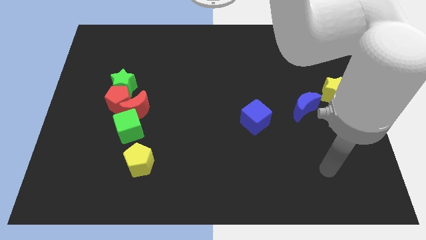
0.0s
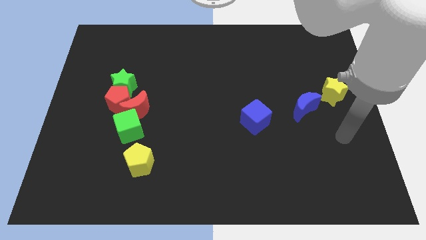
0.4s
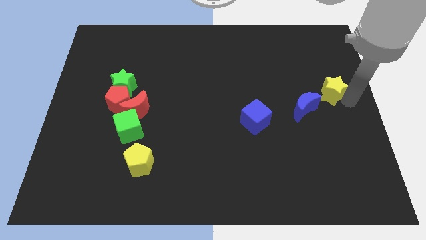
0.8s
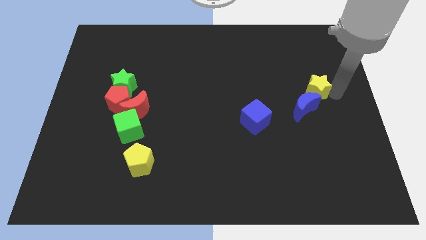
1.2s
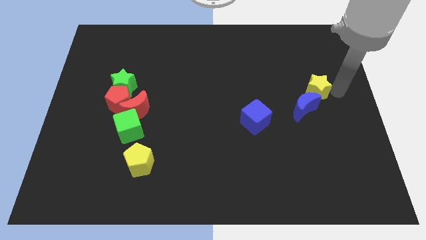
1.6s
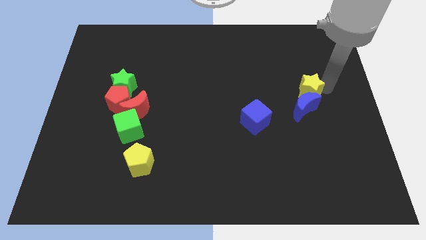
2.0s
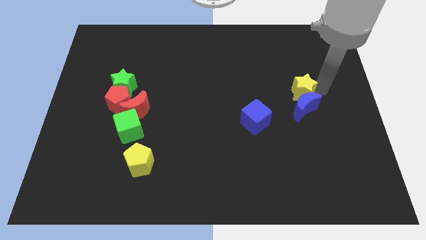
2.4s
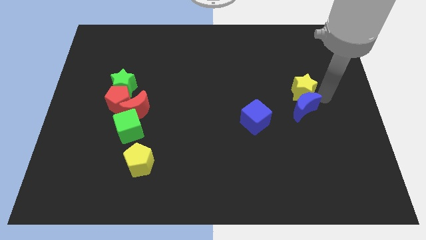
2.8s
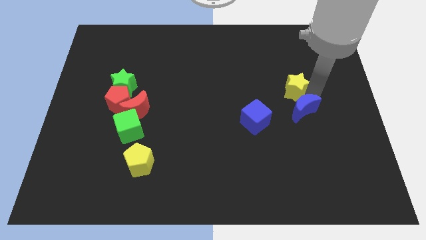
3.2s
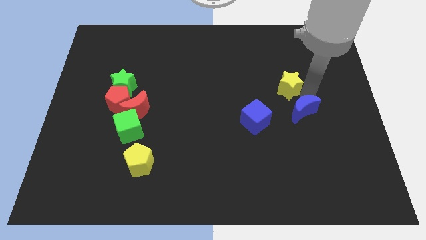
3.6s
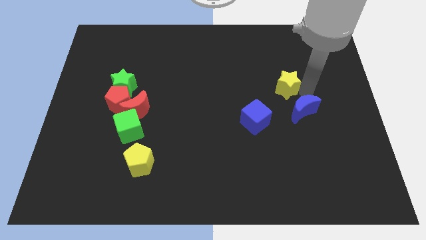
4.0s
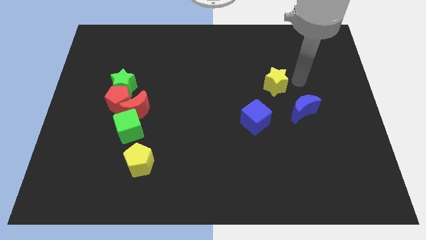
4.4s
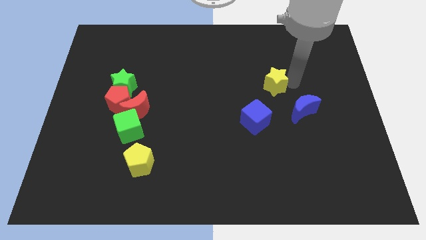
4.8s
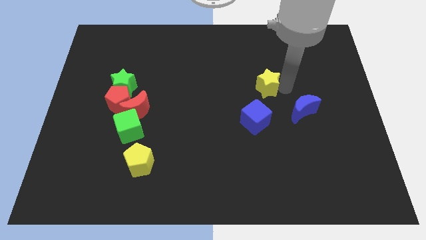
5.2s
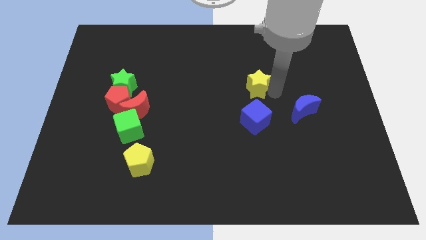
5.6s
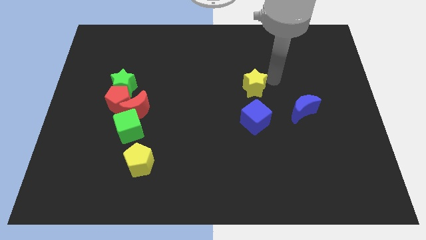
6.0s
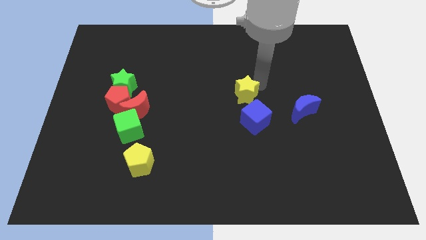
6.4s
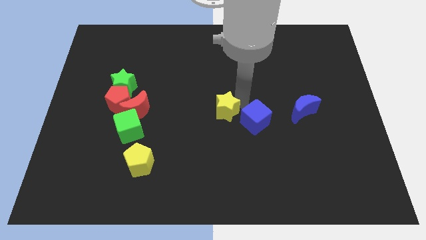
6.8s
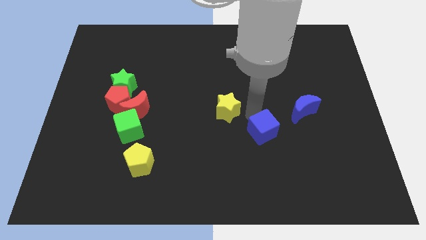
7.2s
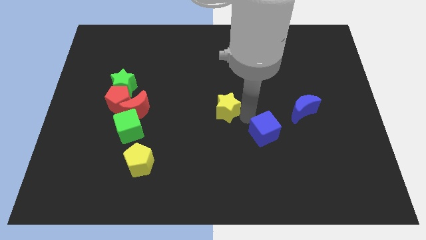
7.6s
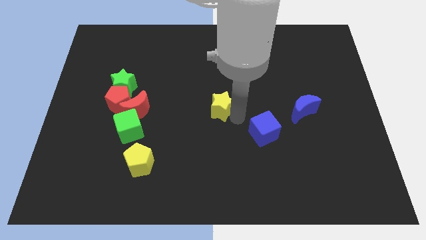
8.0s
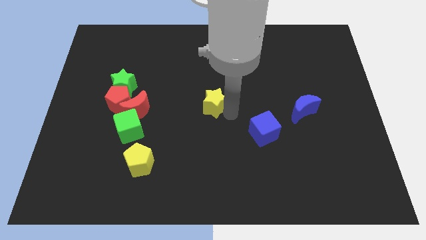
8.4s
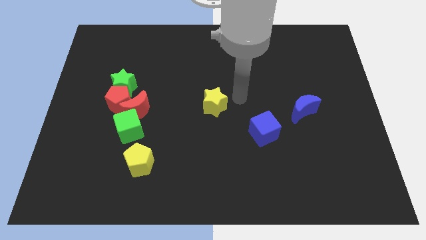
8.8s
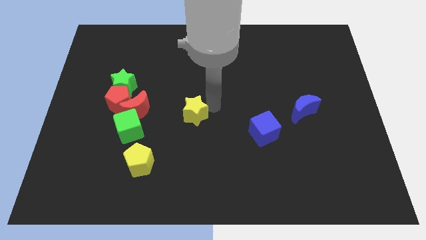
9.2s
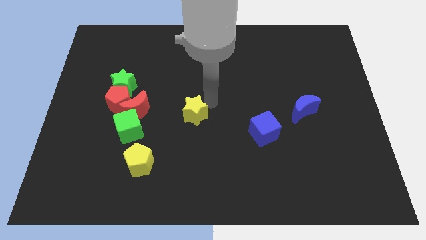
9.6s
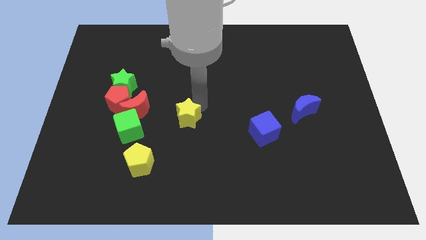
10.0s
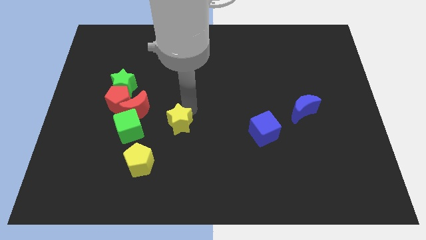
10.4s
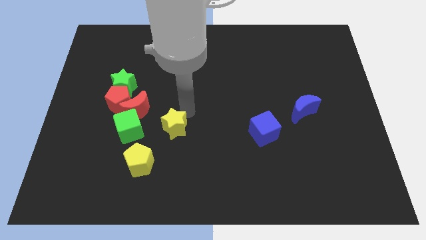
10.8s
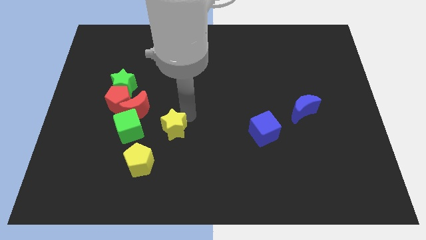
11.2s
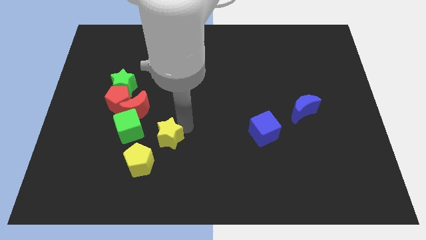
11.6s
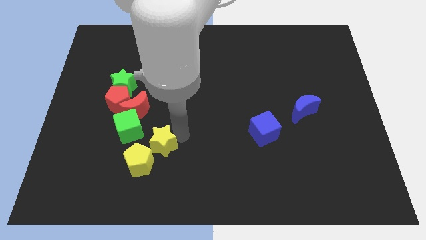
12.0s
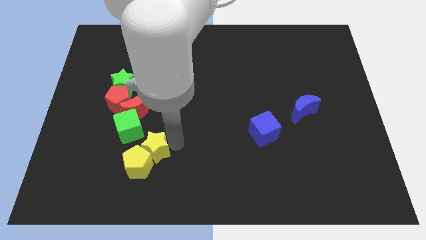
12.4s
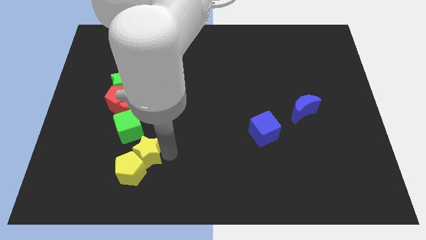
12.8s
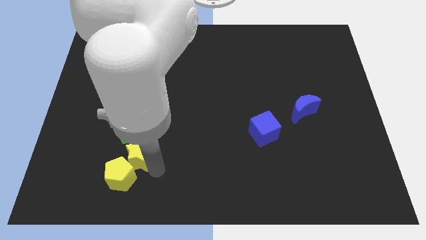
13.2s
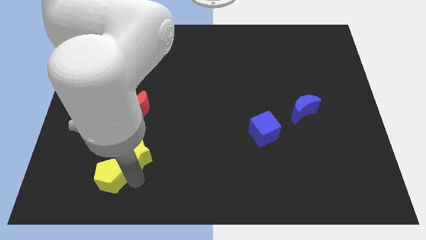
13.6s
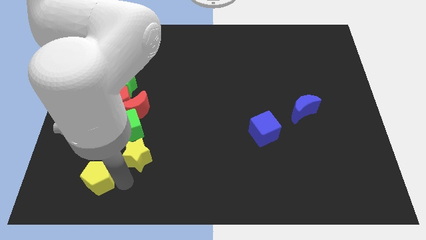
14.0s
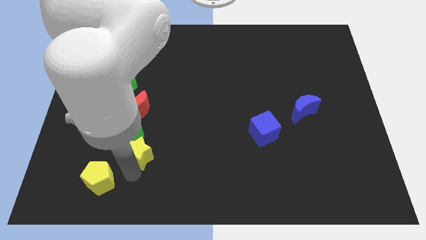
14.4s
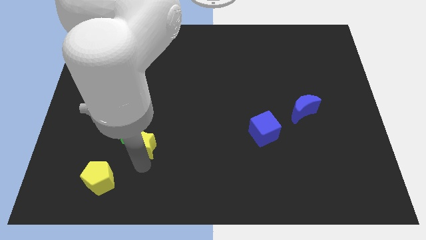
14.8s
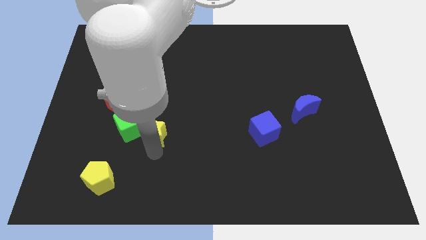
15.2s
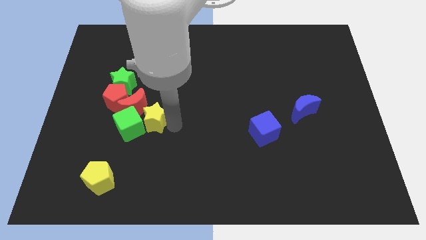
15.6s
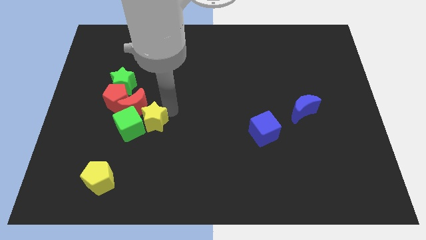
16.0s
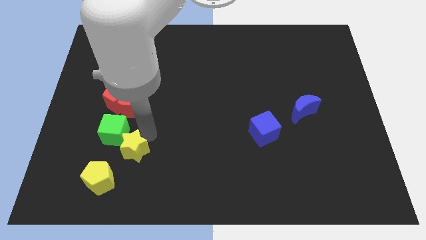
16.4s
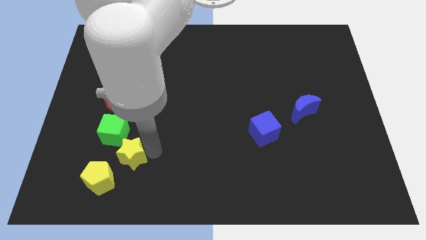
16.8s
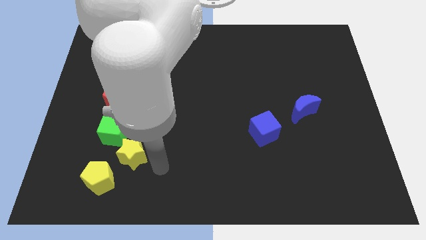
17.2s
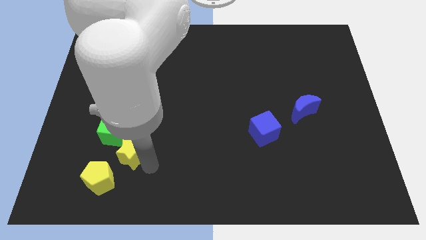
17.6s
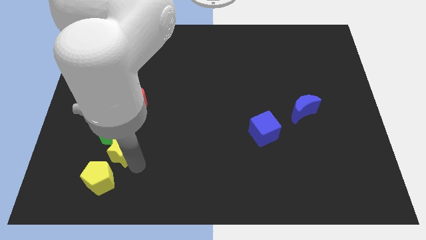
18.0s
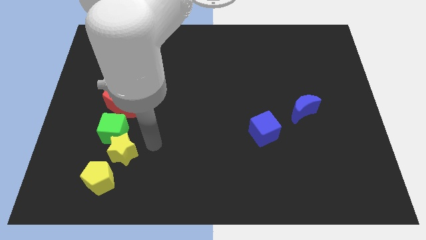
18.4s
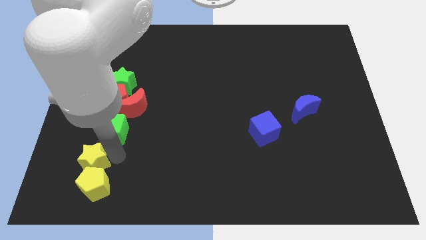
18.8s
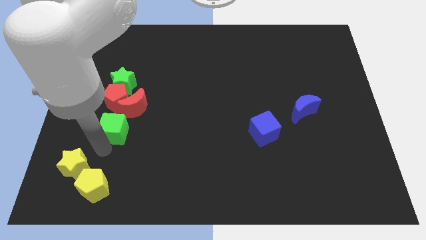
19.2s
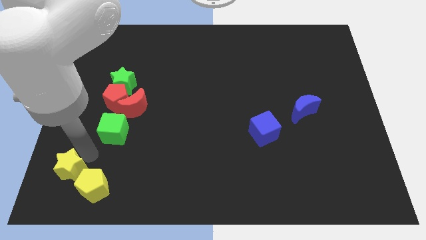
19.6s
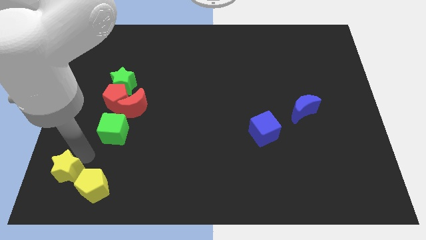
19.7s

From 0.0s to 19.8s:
put the yellow star to the bottom left of the board
